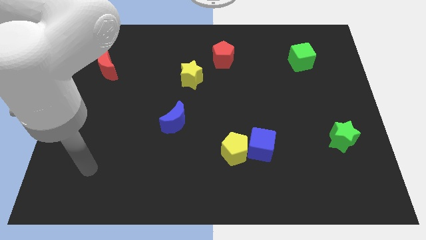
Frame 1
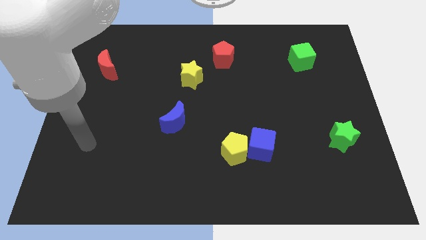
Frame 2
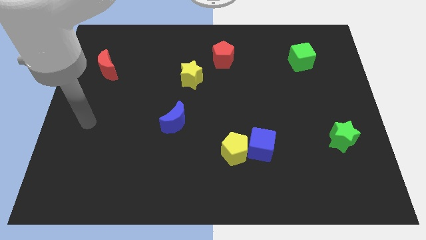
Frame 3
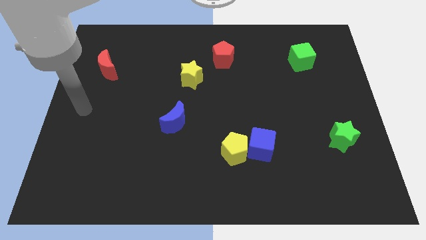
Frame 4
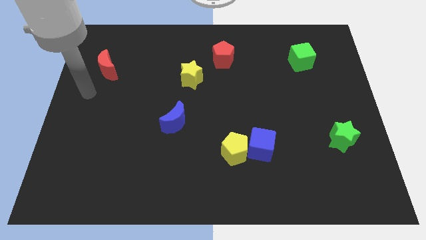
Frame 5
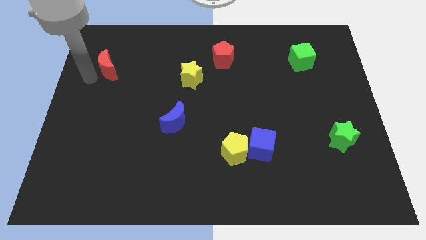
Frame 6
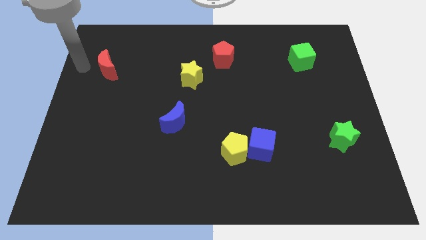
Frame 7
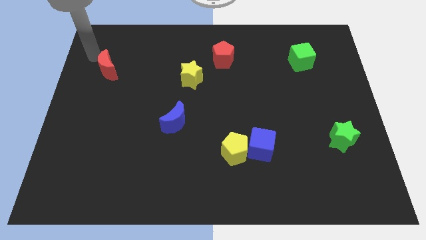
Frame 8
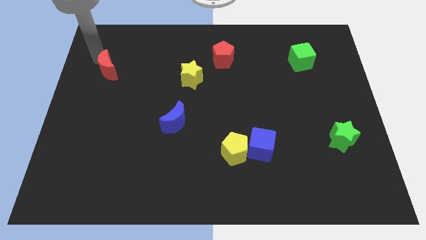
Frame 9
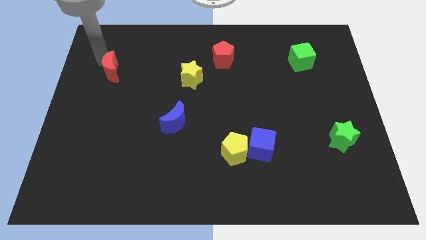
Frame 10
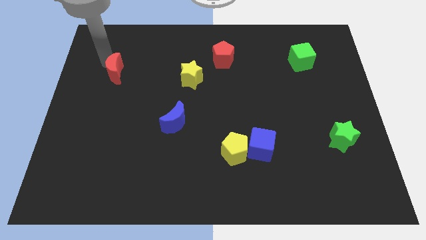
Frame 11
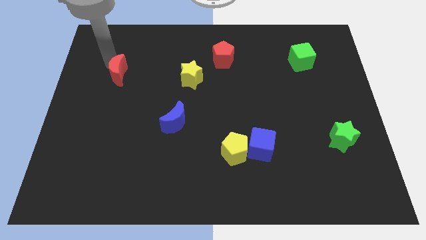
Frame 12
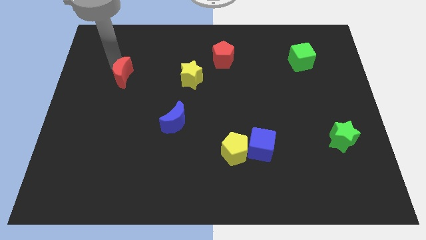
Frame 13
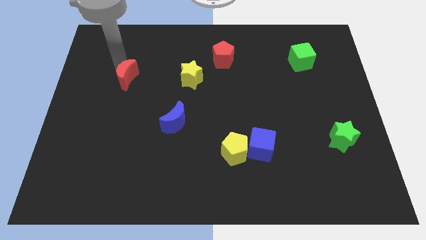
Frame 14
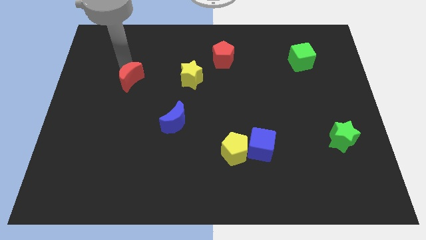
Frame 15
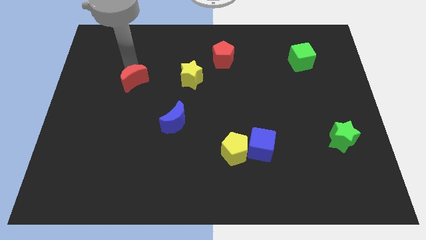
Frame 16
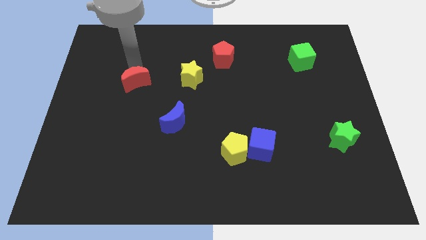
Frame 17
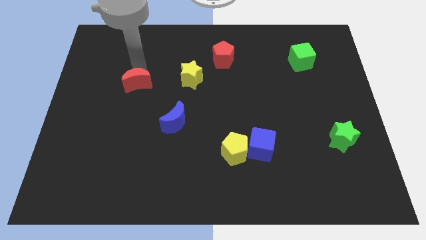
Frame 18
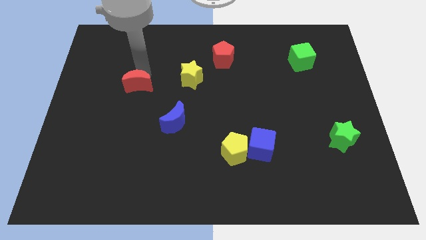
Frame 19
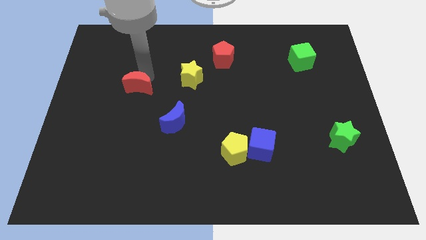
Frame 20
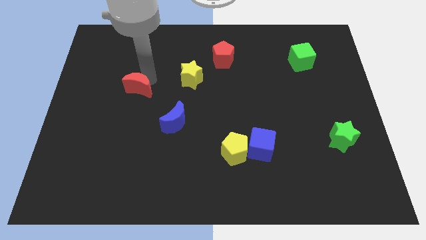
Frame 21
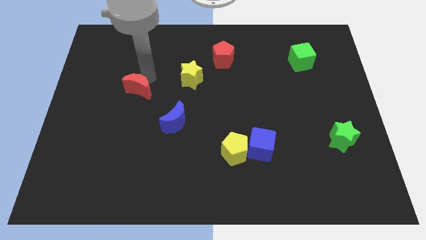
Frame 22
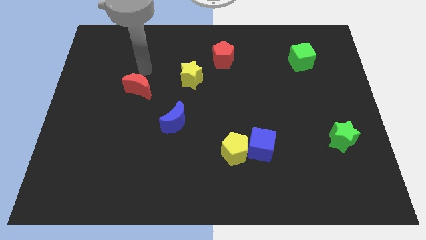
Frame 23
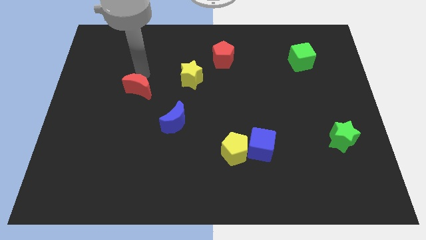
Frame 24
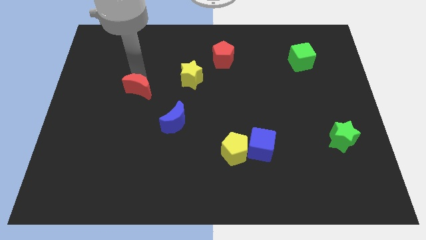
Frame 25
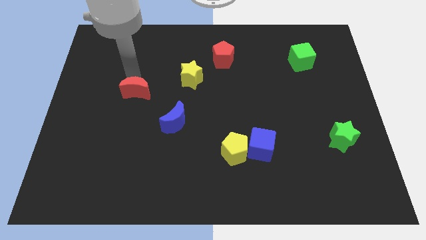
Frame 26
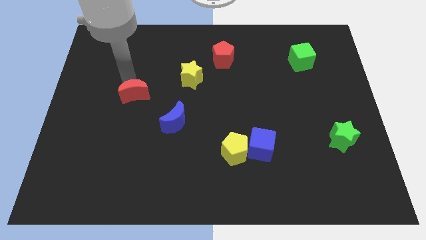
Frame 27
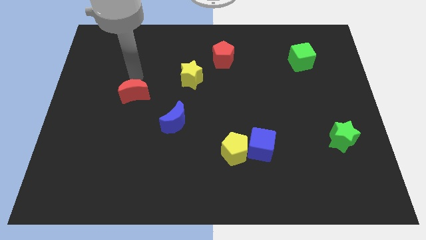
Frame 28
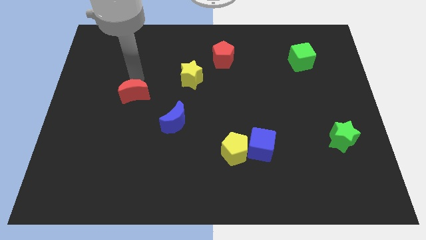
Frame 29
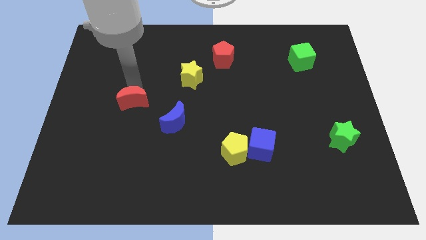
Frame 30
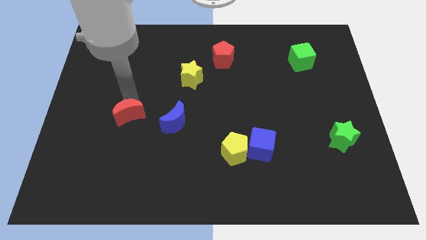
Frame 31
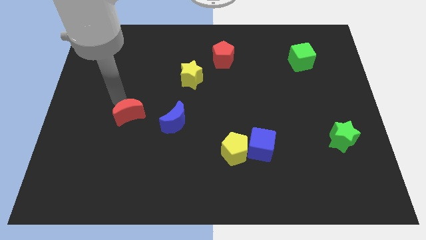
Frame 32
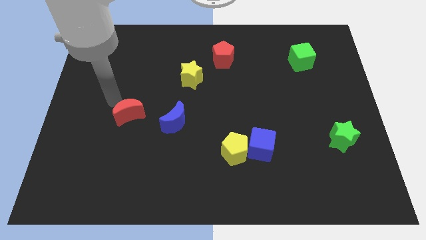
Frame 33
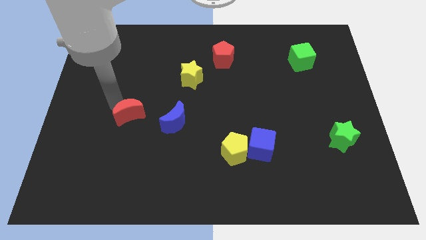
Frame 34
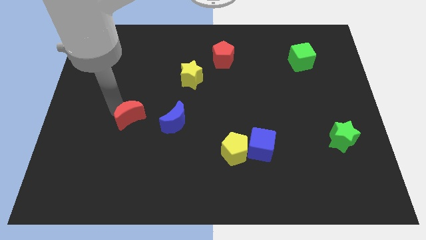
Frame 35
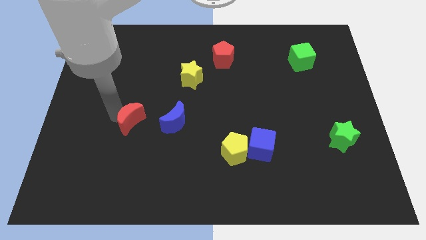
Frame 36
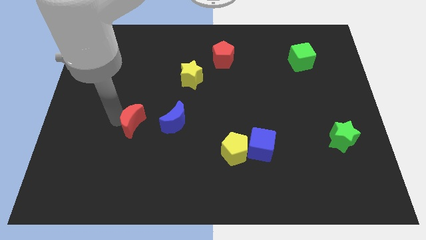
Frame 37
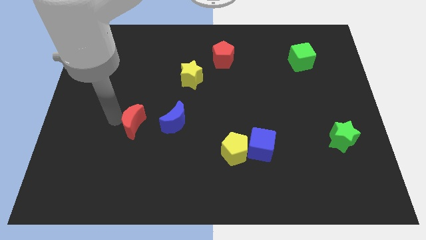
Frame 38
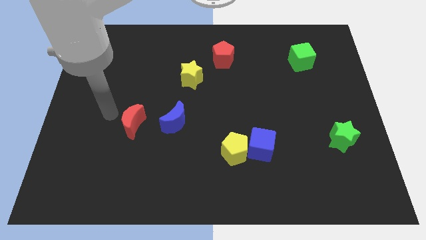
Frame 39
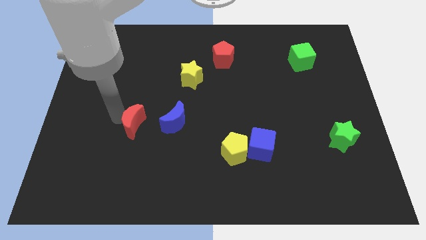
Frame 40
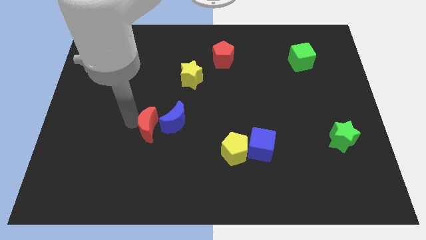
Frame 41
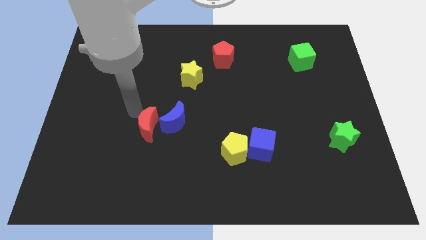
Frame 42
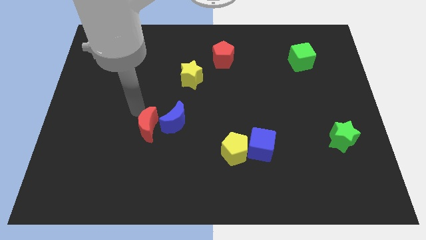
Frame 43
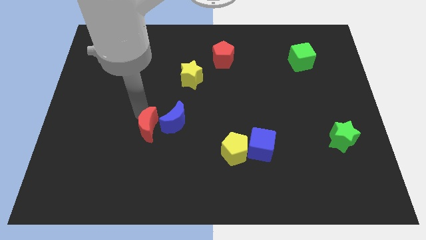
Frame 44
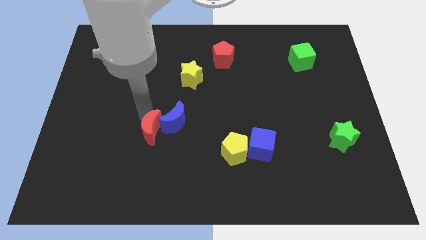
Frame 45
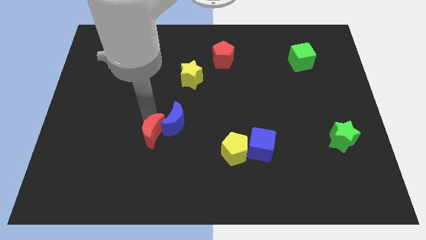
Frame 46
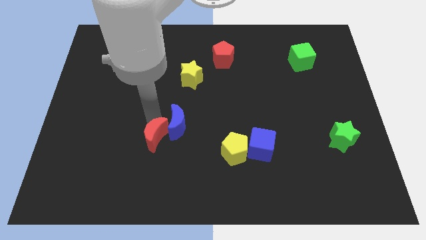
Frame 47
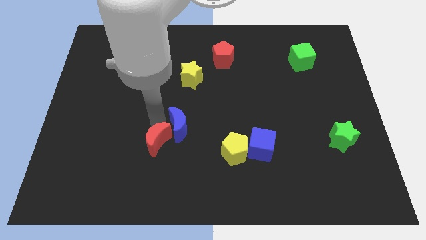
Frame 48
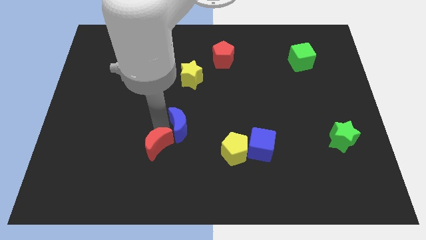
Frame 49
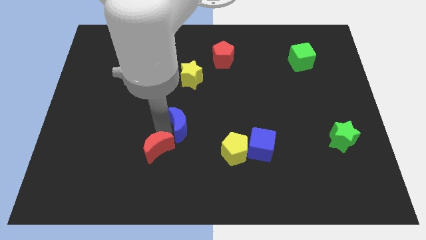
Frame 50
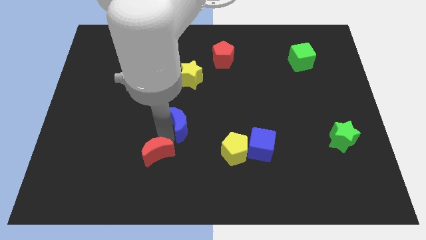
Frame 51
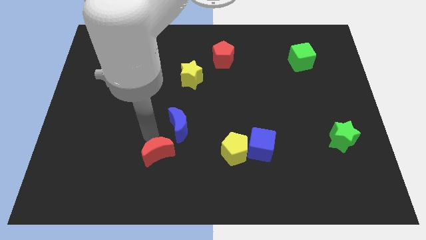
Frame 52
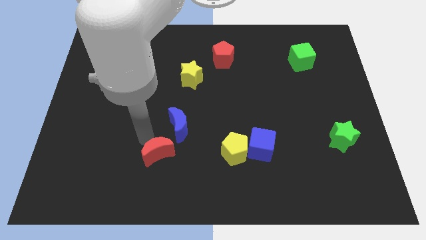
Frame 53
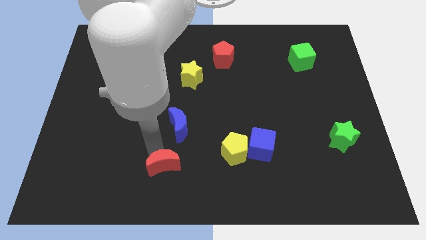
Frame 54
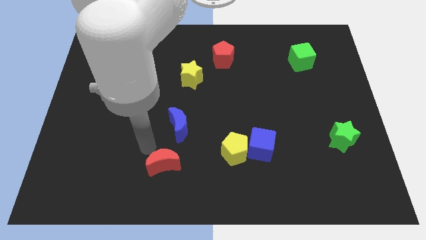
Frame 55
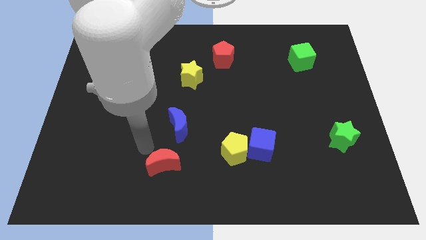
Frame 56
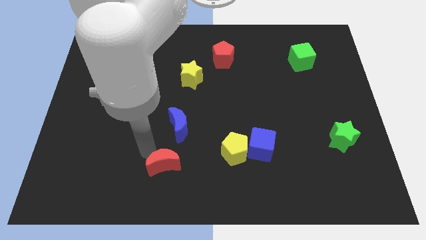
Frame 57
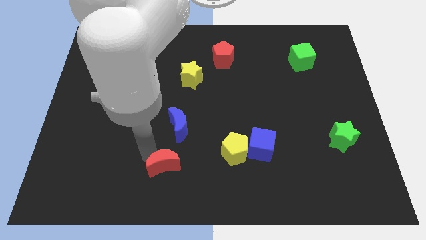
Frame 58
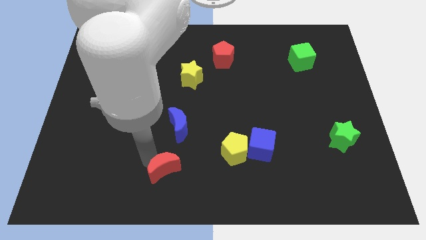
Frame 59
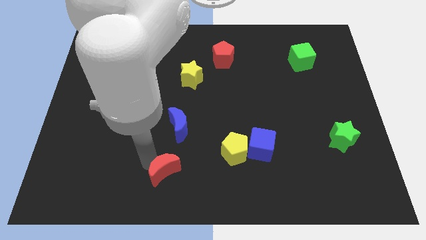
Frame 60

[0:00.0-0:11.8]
push the red moon to the bottom
